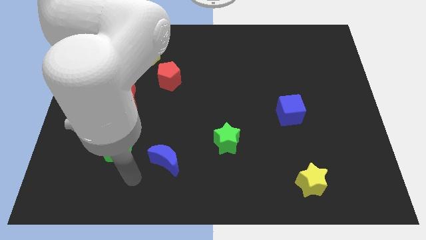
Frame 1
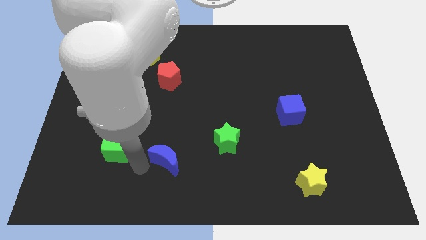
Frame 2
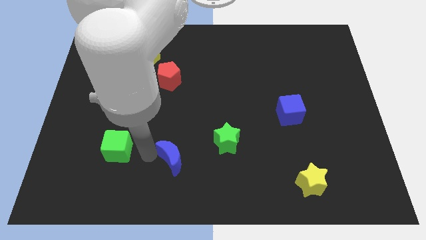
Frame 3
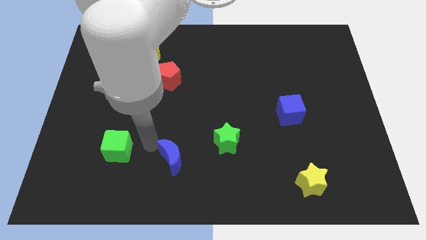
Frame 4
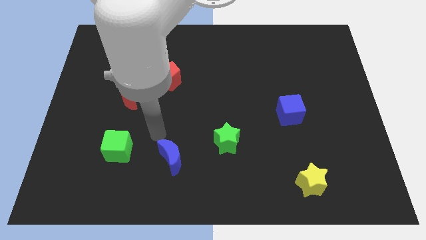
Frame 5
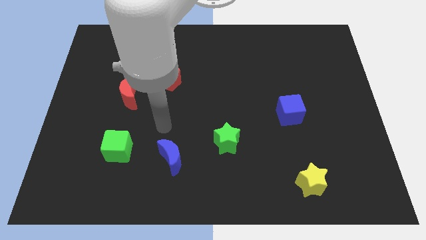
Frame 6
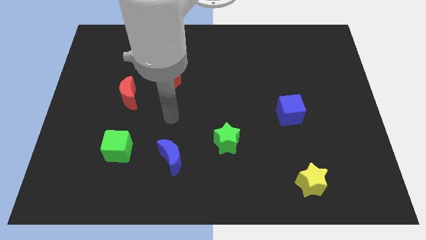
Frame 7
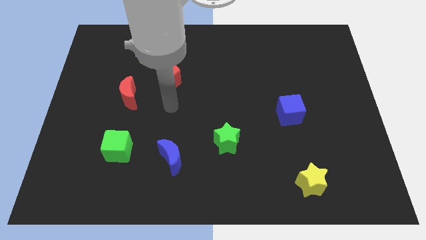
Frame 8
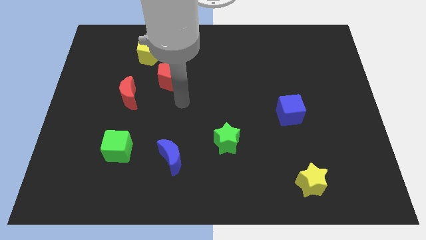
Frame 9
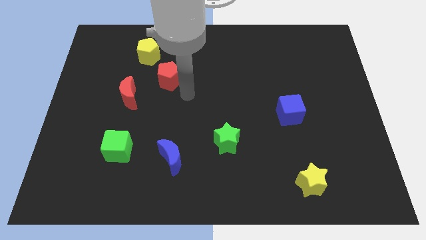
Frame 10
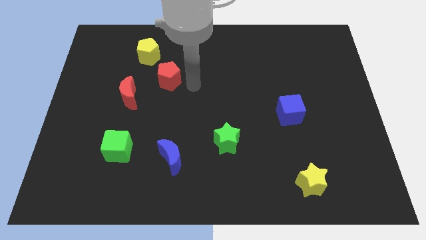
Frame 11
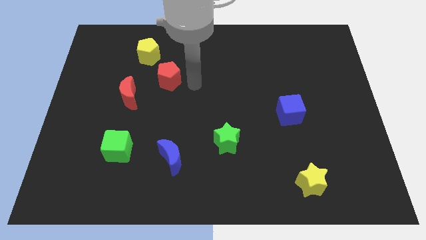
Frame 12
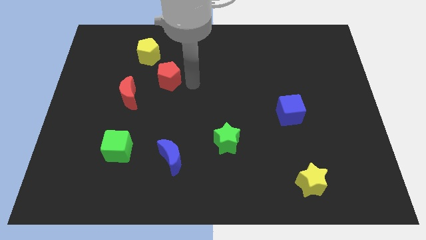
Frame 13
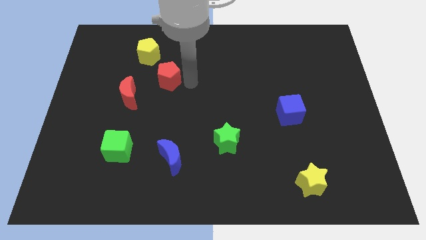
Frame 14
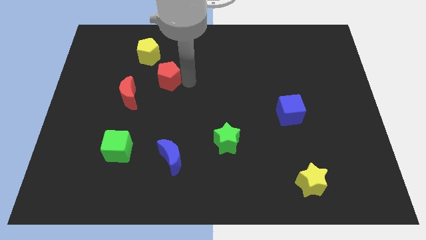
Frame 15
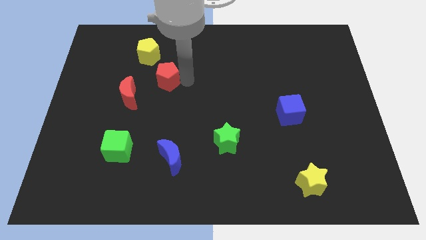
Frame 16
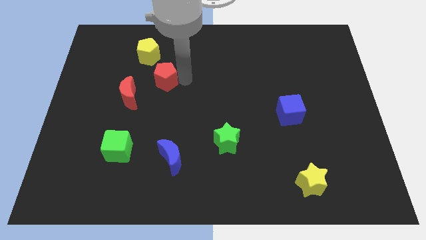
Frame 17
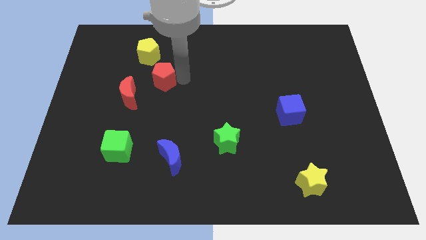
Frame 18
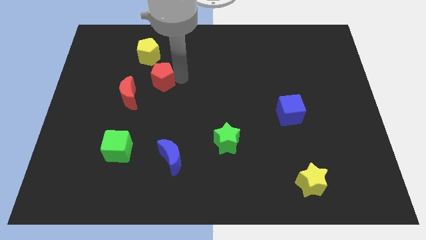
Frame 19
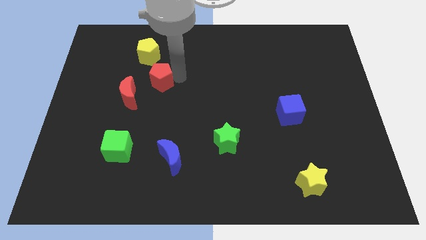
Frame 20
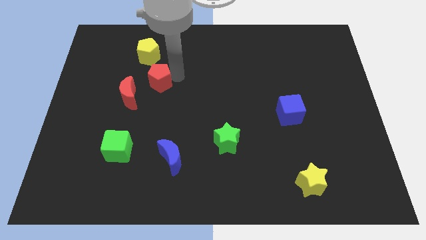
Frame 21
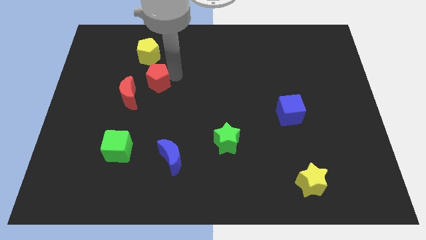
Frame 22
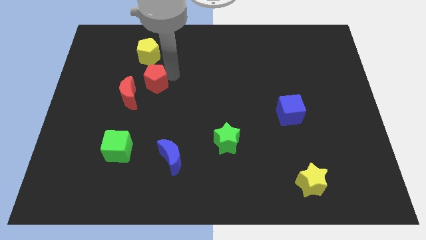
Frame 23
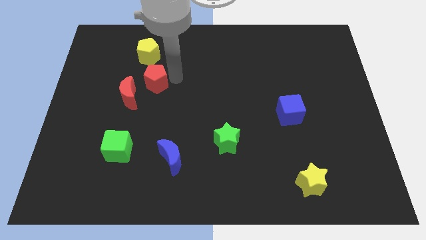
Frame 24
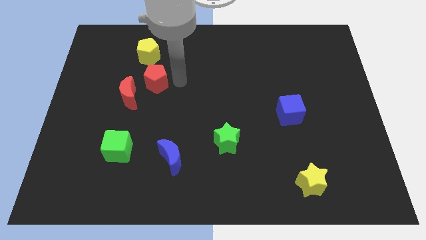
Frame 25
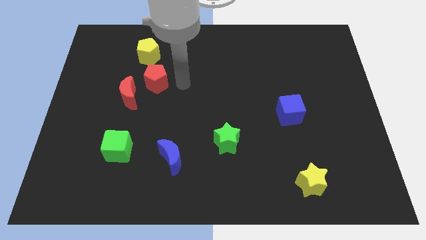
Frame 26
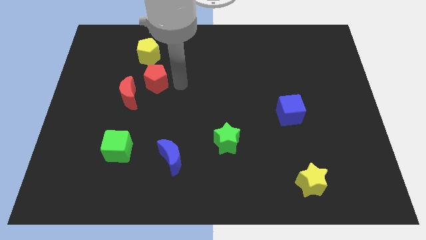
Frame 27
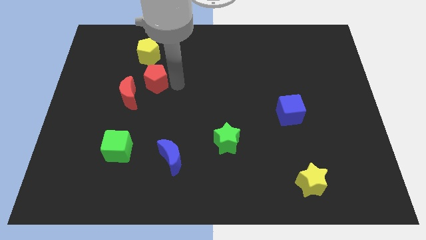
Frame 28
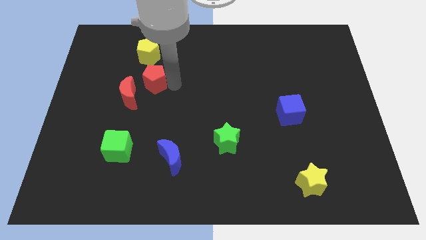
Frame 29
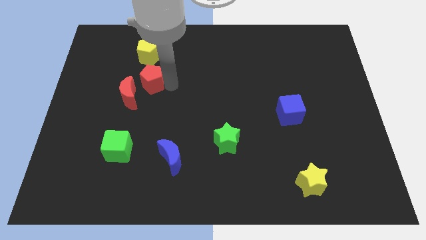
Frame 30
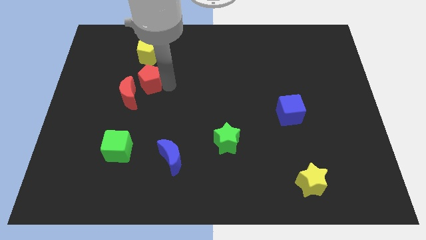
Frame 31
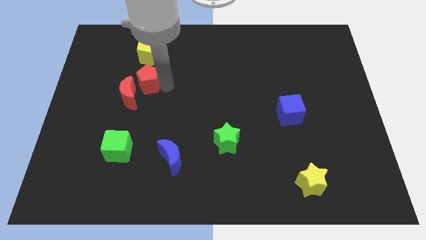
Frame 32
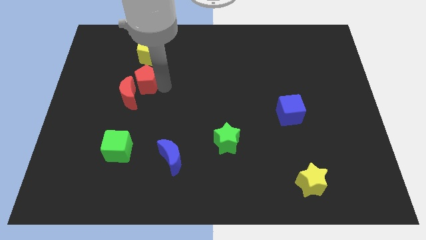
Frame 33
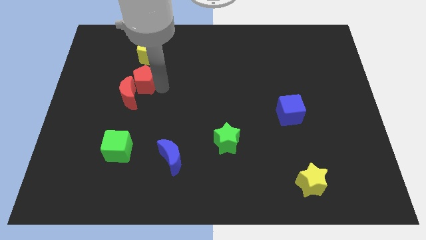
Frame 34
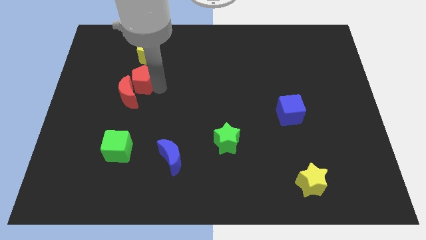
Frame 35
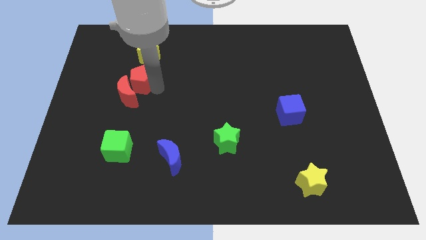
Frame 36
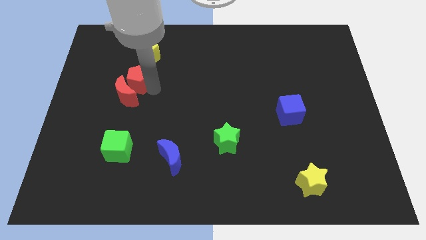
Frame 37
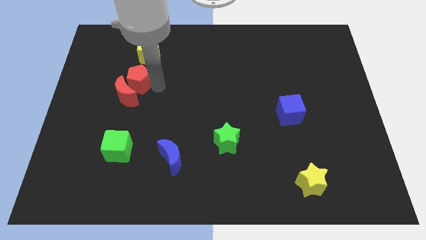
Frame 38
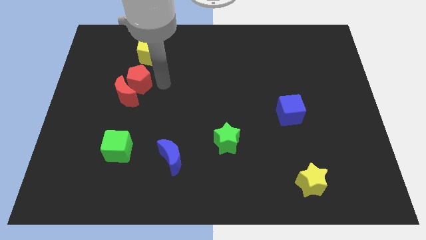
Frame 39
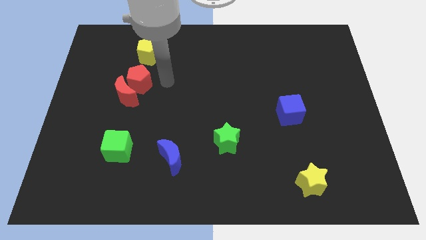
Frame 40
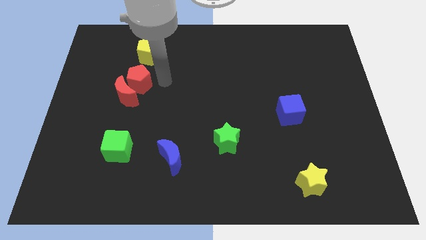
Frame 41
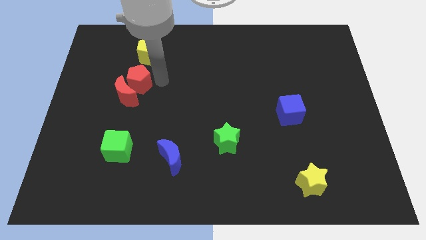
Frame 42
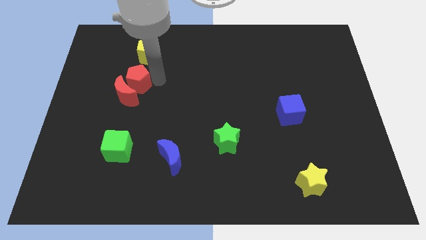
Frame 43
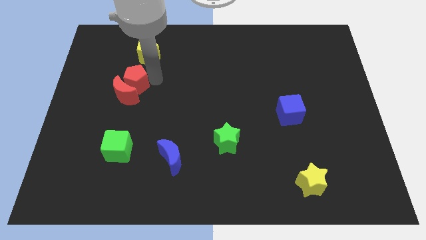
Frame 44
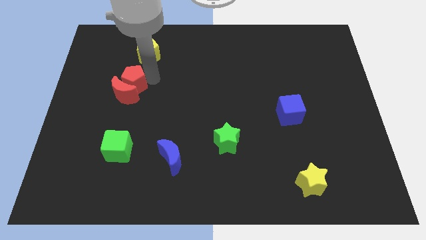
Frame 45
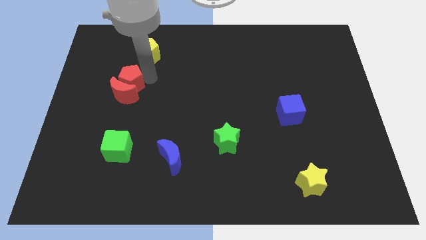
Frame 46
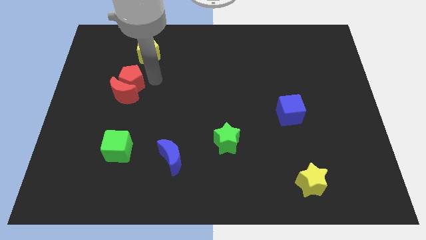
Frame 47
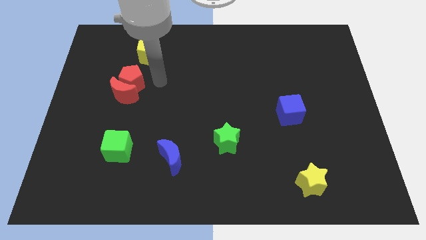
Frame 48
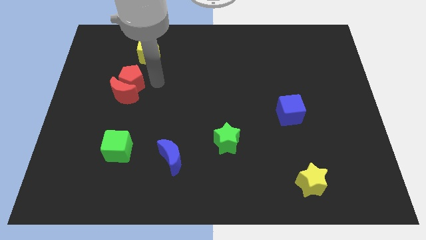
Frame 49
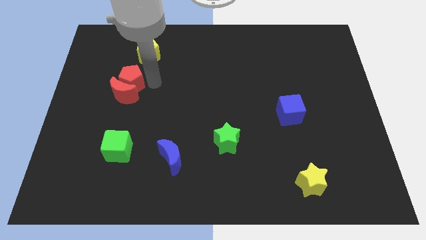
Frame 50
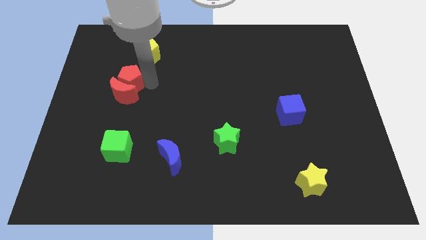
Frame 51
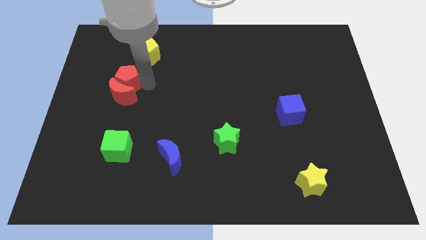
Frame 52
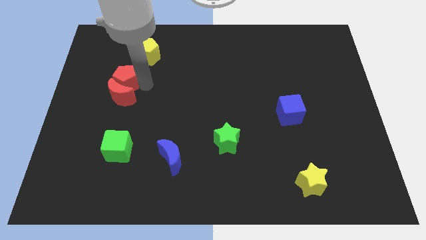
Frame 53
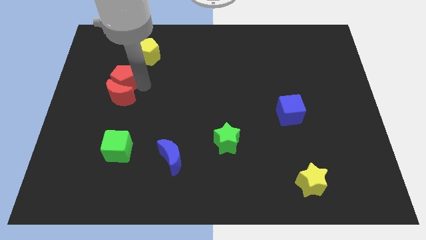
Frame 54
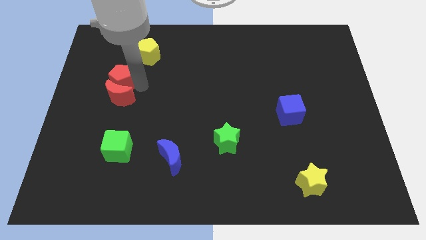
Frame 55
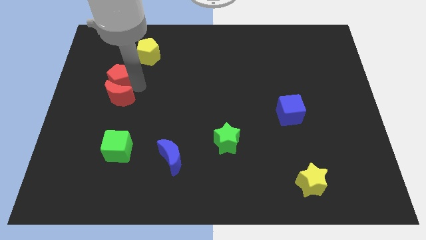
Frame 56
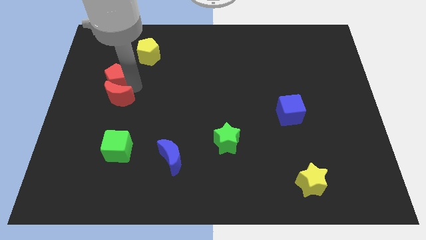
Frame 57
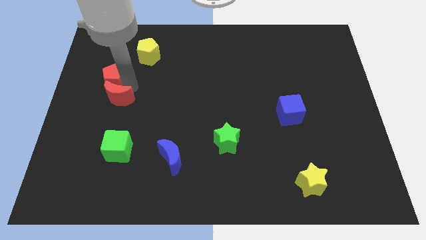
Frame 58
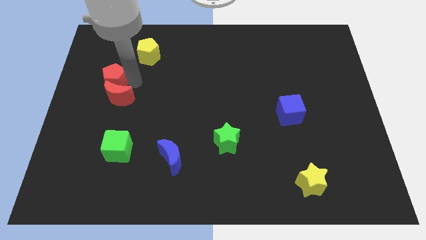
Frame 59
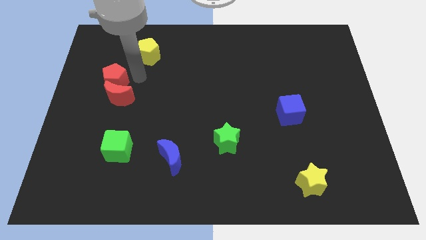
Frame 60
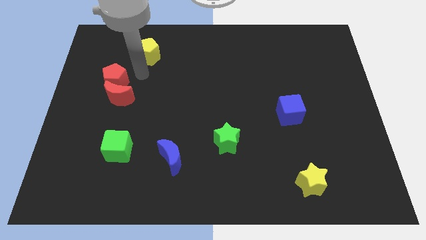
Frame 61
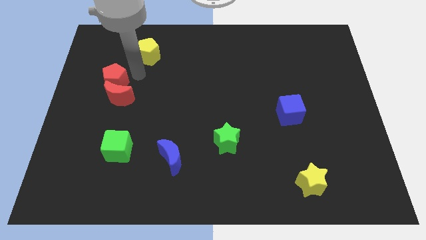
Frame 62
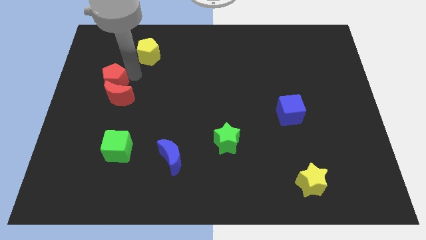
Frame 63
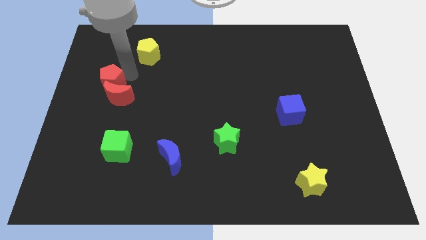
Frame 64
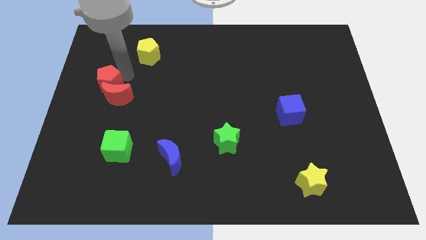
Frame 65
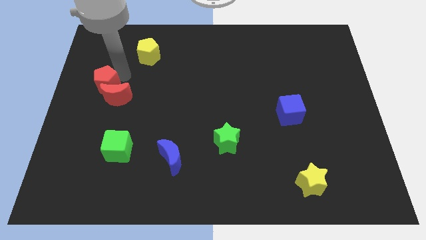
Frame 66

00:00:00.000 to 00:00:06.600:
push the red pentagon to the center left
